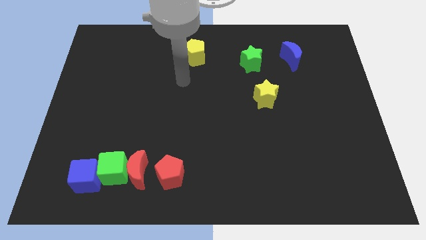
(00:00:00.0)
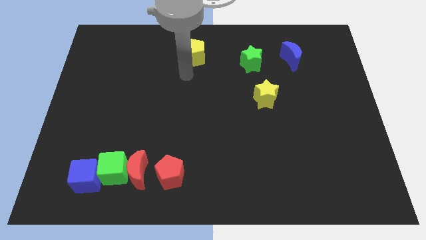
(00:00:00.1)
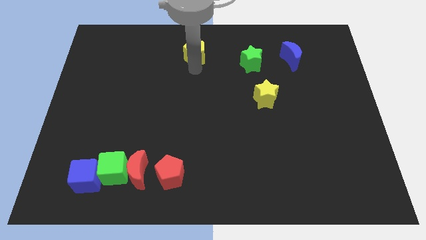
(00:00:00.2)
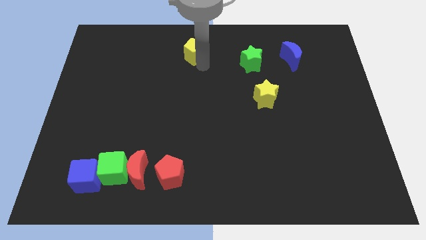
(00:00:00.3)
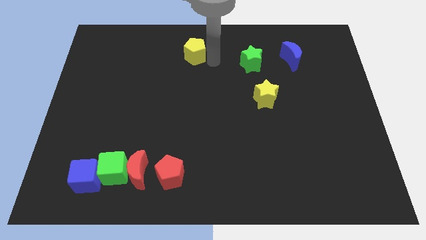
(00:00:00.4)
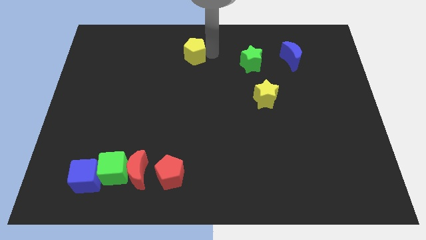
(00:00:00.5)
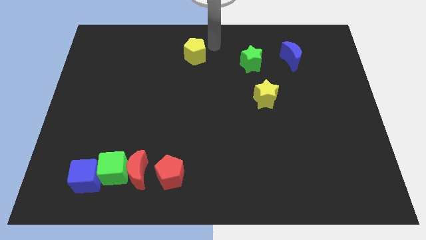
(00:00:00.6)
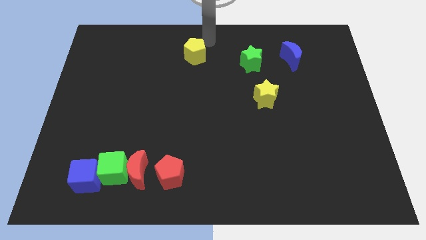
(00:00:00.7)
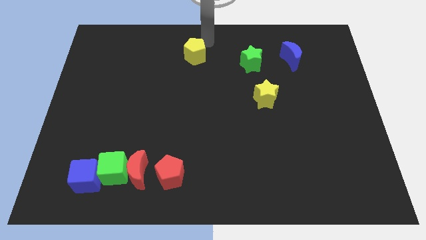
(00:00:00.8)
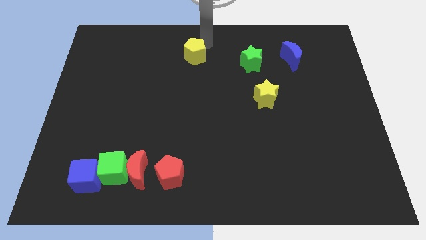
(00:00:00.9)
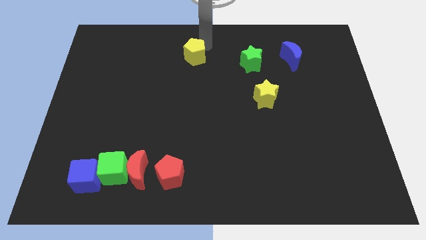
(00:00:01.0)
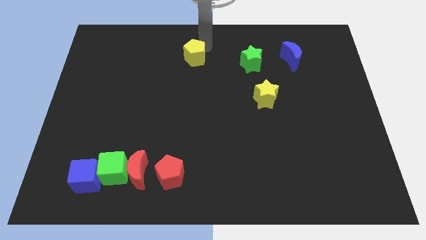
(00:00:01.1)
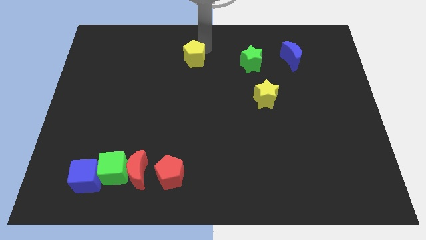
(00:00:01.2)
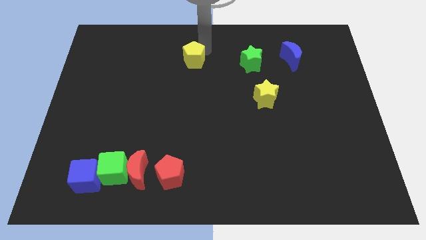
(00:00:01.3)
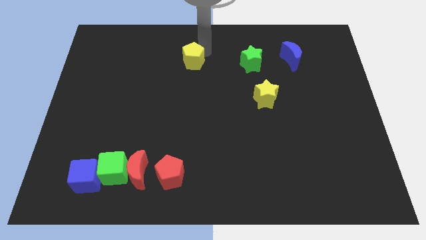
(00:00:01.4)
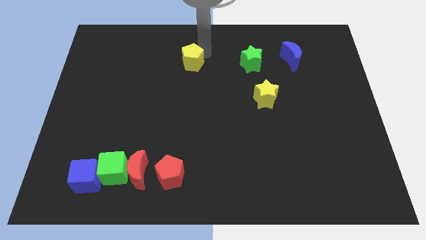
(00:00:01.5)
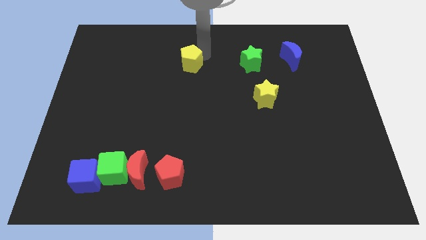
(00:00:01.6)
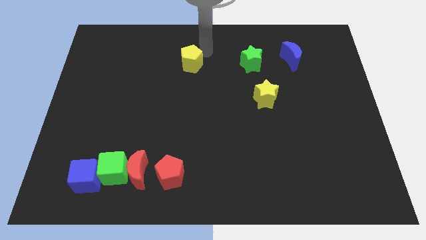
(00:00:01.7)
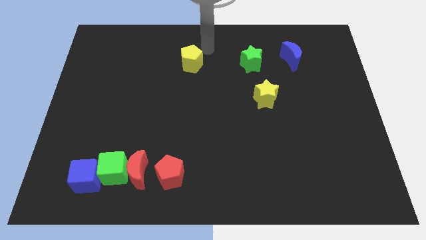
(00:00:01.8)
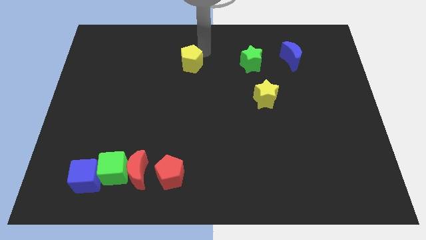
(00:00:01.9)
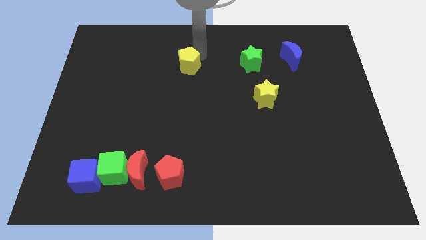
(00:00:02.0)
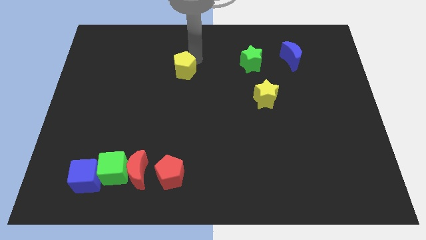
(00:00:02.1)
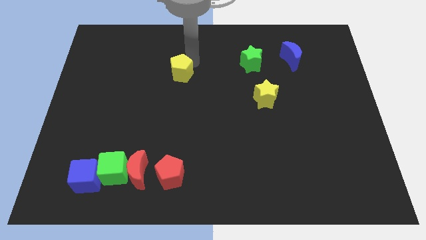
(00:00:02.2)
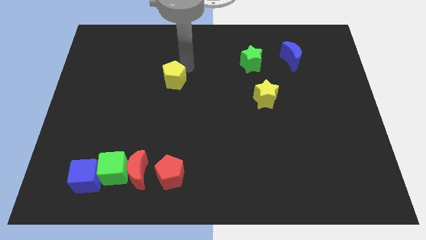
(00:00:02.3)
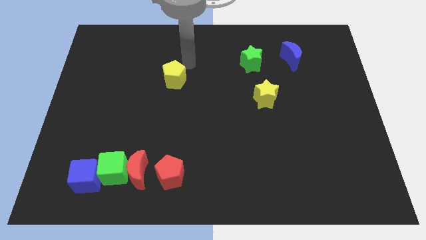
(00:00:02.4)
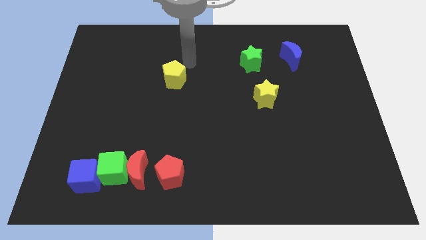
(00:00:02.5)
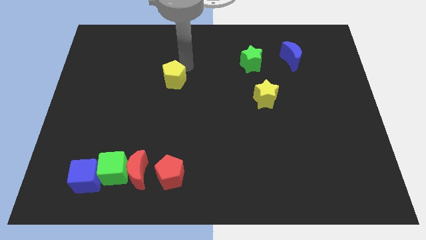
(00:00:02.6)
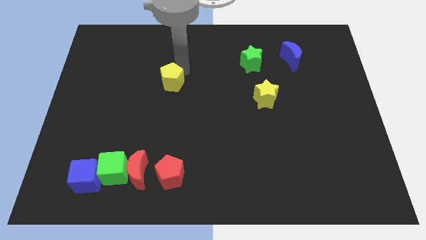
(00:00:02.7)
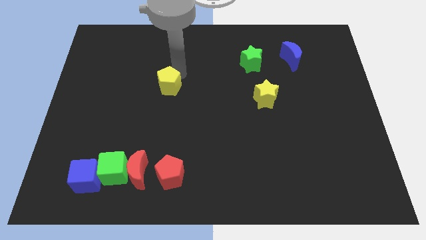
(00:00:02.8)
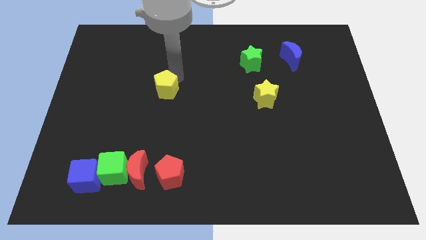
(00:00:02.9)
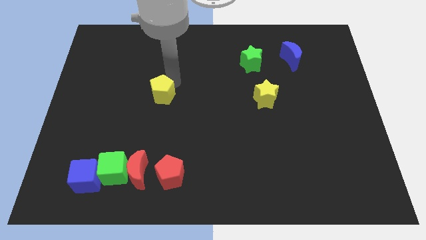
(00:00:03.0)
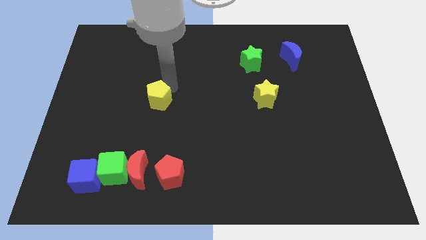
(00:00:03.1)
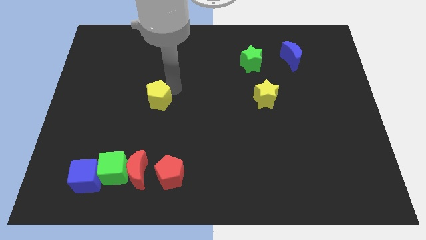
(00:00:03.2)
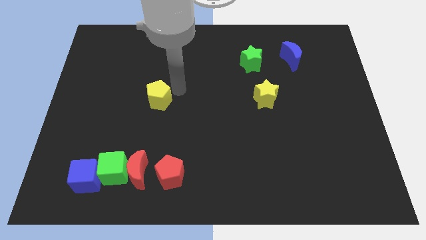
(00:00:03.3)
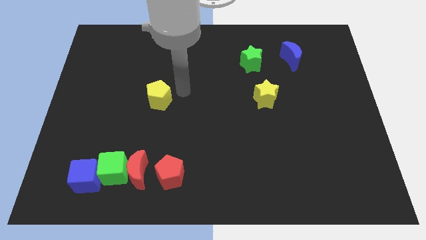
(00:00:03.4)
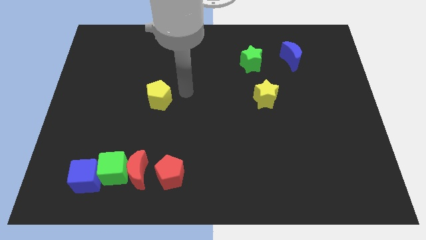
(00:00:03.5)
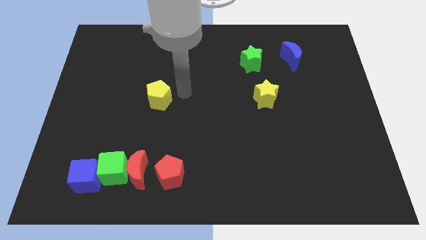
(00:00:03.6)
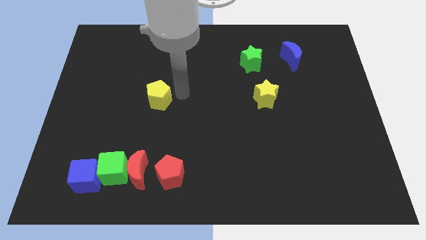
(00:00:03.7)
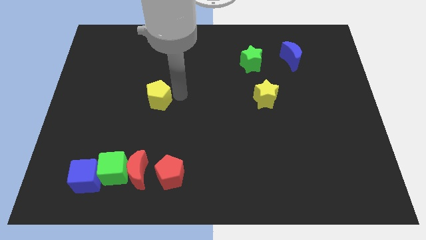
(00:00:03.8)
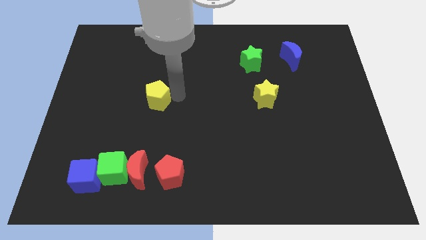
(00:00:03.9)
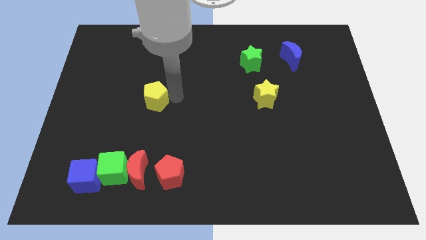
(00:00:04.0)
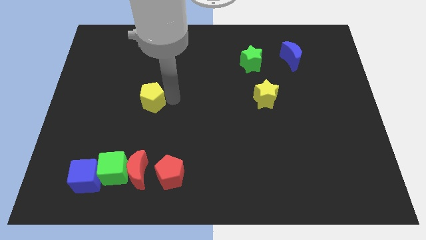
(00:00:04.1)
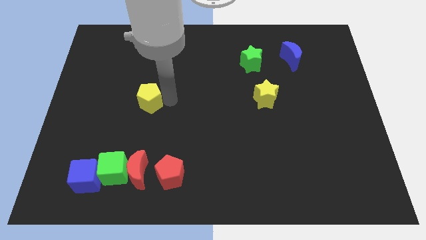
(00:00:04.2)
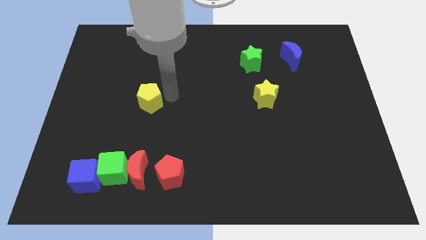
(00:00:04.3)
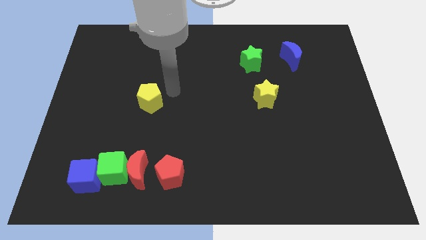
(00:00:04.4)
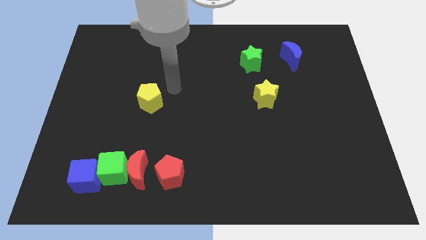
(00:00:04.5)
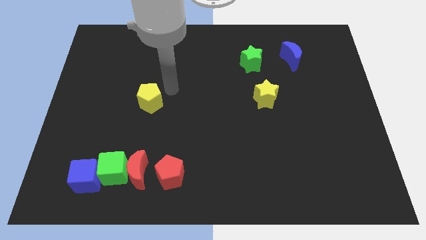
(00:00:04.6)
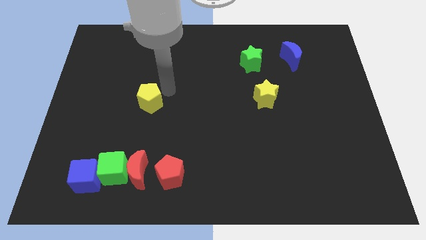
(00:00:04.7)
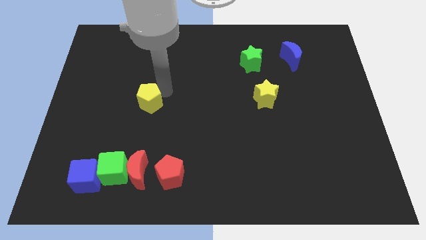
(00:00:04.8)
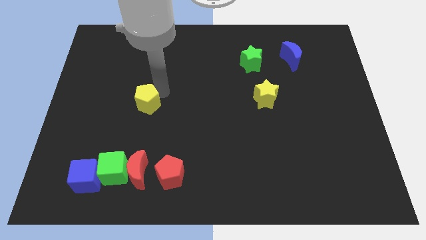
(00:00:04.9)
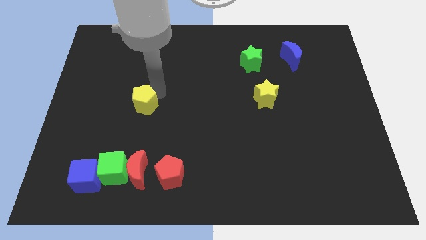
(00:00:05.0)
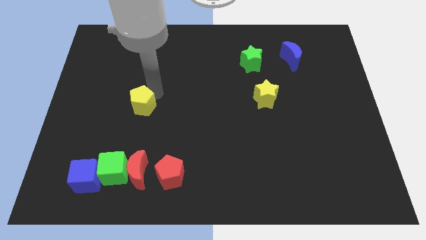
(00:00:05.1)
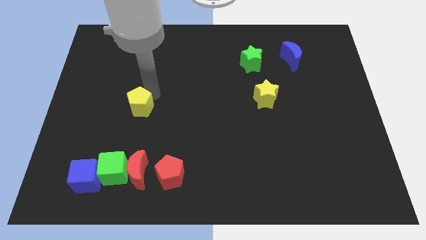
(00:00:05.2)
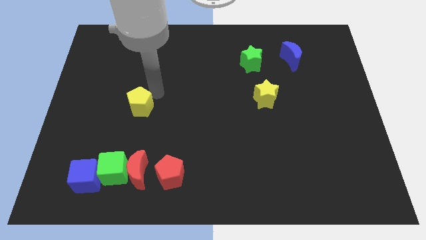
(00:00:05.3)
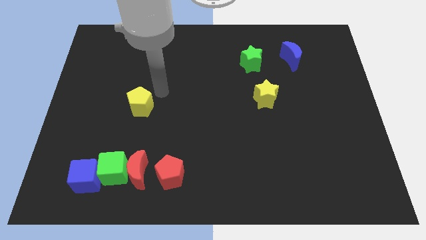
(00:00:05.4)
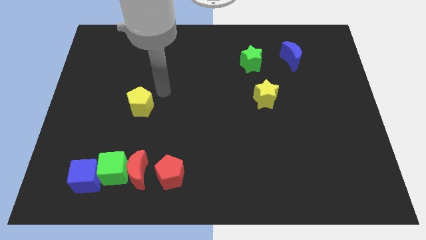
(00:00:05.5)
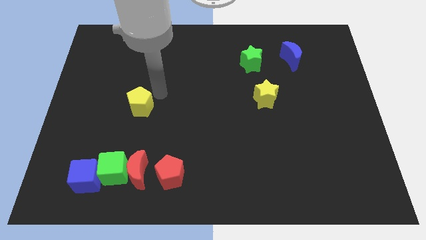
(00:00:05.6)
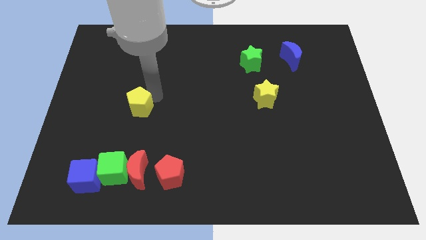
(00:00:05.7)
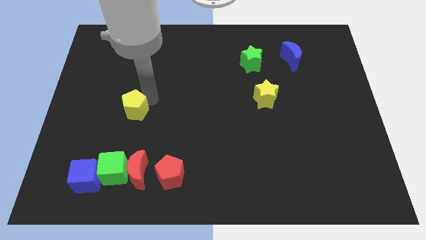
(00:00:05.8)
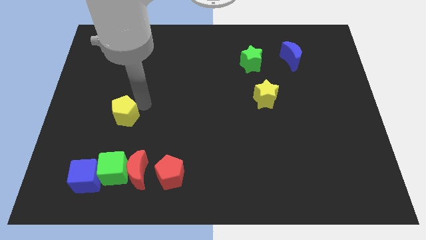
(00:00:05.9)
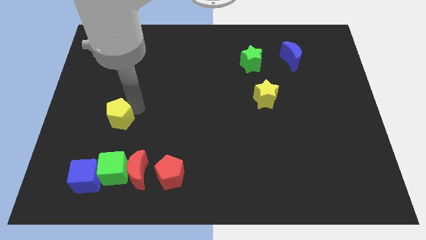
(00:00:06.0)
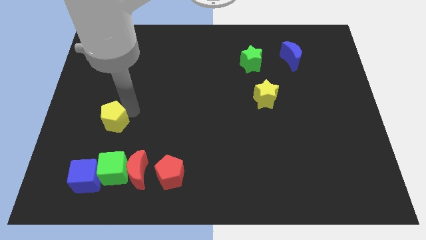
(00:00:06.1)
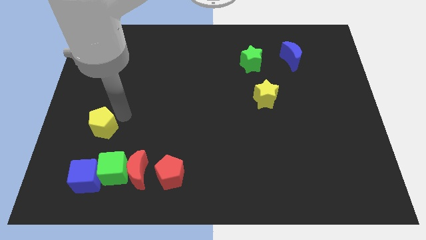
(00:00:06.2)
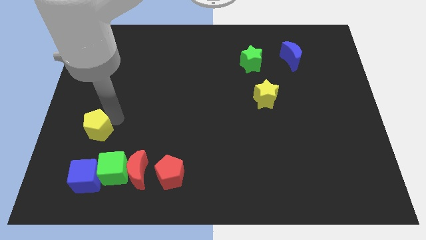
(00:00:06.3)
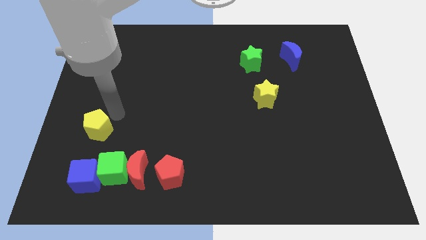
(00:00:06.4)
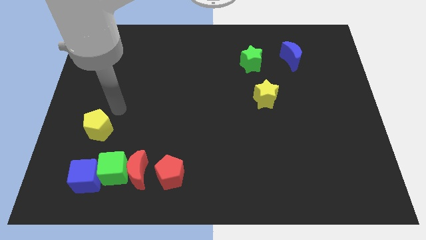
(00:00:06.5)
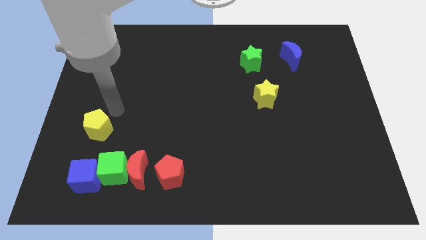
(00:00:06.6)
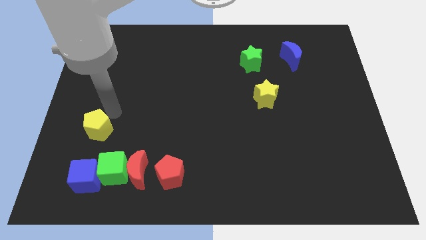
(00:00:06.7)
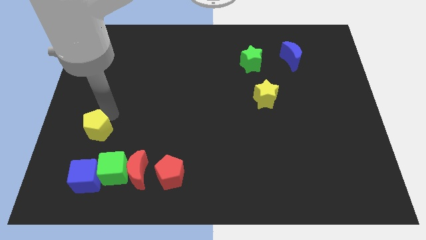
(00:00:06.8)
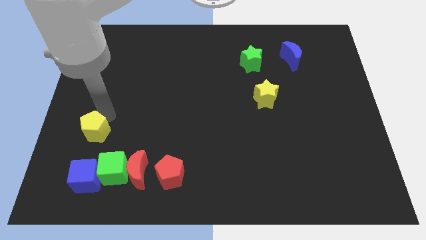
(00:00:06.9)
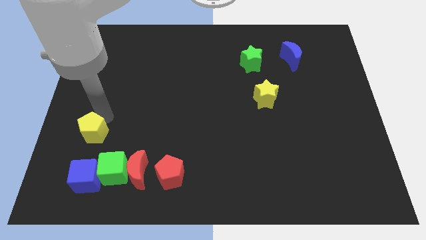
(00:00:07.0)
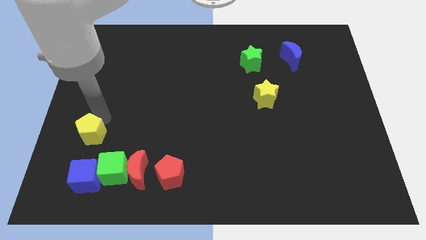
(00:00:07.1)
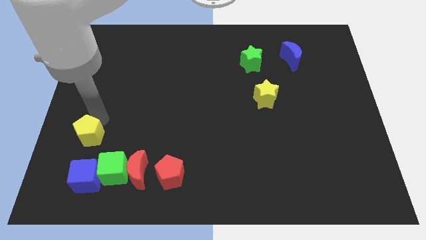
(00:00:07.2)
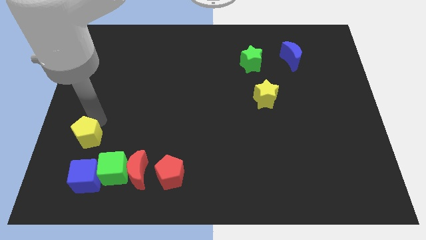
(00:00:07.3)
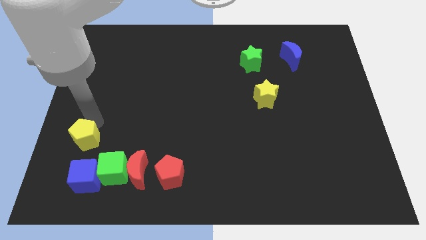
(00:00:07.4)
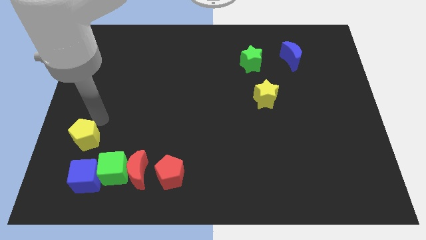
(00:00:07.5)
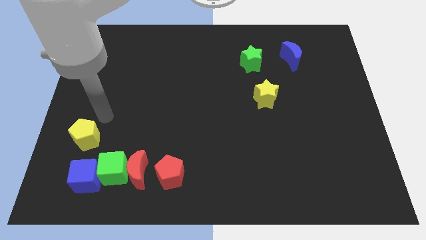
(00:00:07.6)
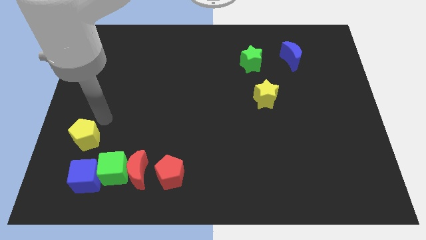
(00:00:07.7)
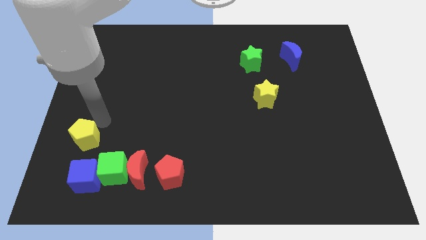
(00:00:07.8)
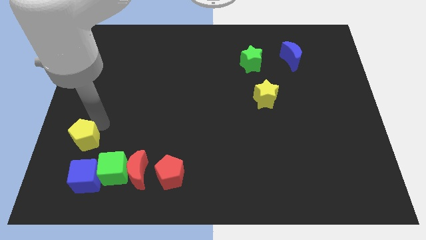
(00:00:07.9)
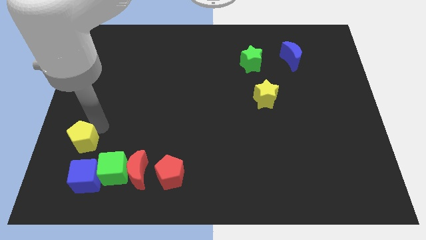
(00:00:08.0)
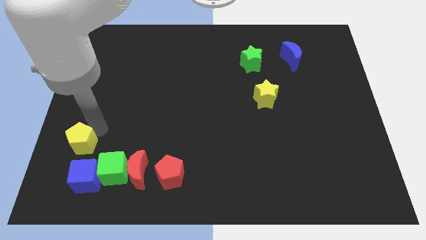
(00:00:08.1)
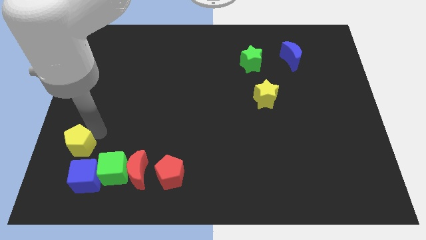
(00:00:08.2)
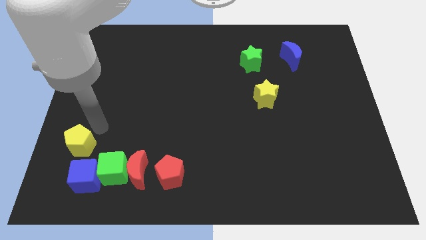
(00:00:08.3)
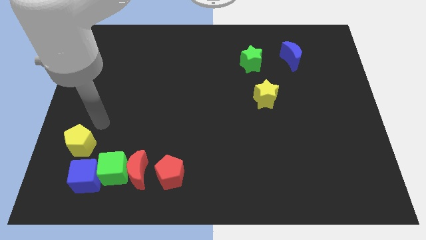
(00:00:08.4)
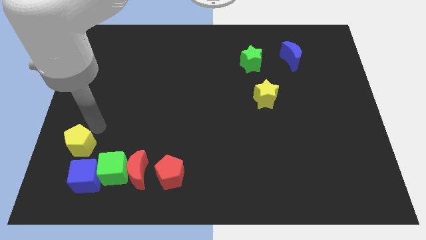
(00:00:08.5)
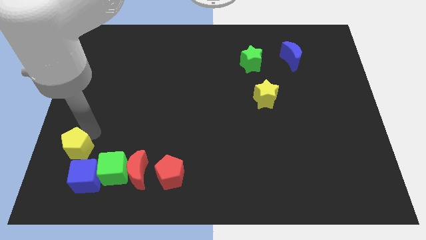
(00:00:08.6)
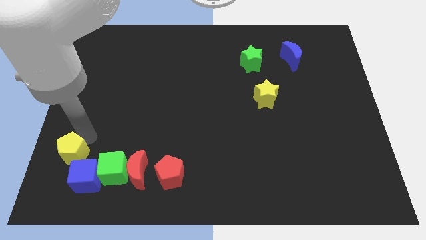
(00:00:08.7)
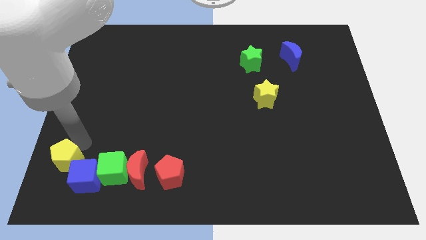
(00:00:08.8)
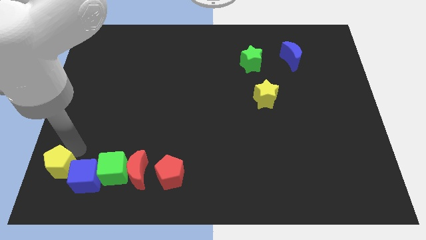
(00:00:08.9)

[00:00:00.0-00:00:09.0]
push the yellow pentagon to the bottom left corner
